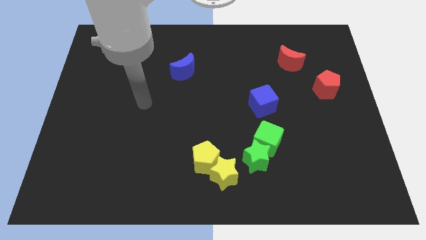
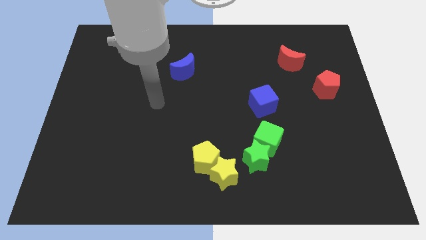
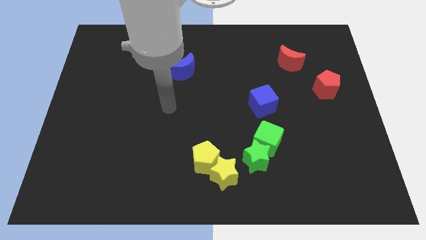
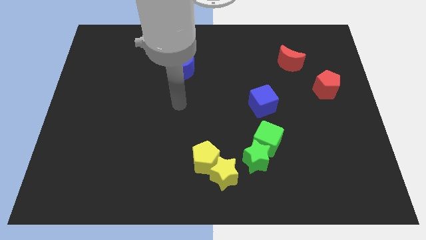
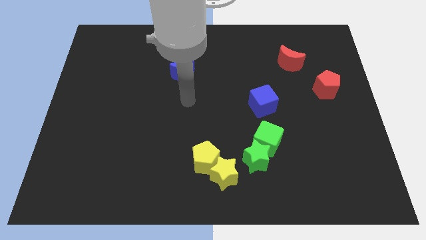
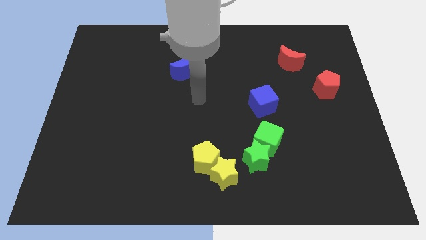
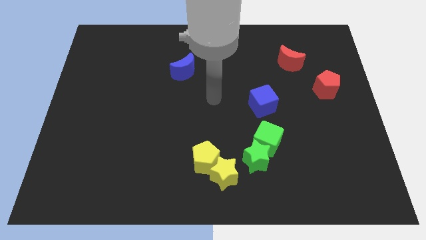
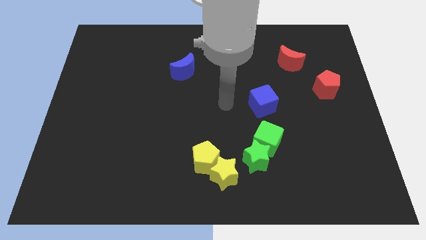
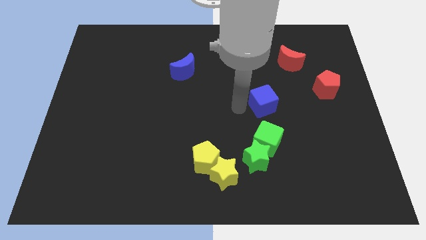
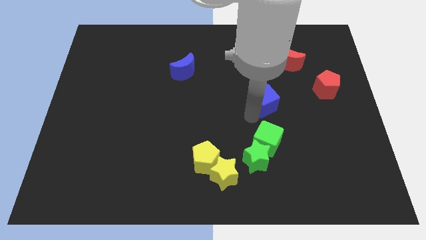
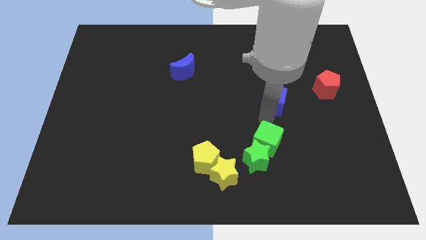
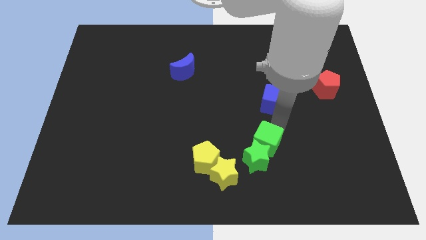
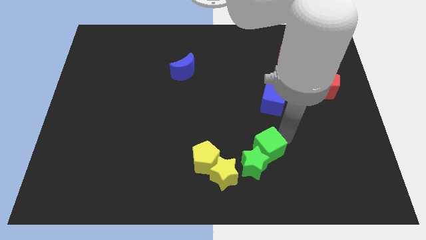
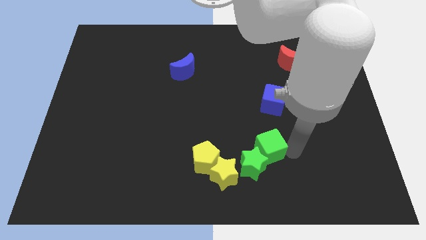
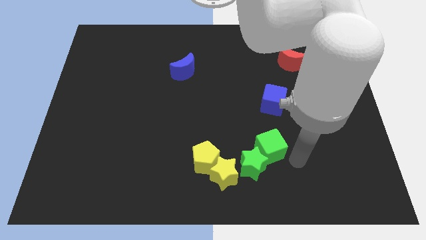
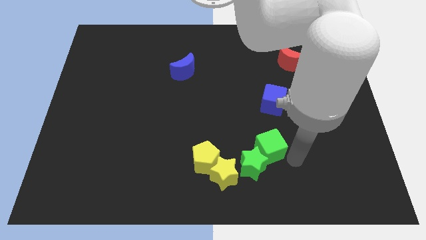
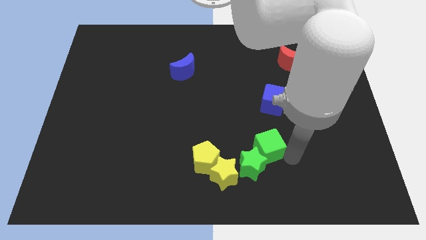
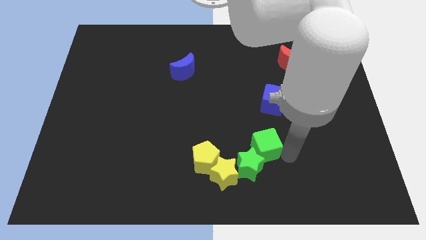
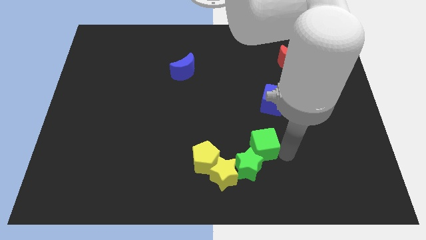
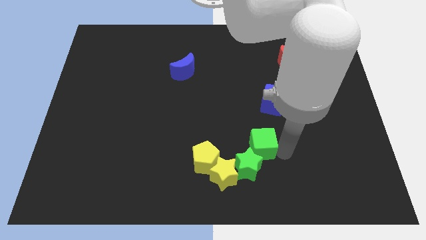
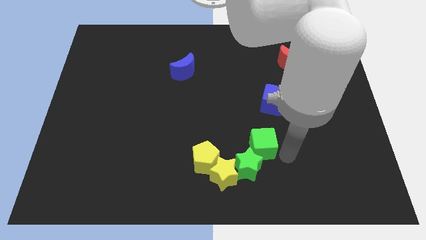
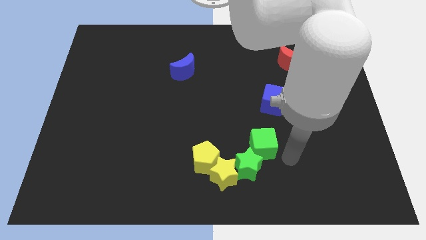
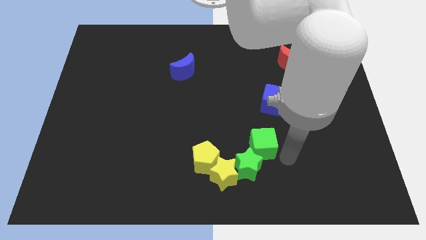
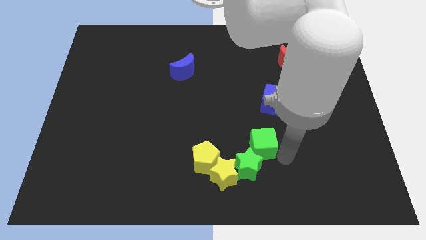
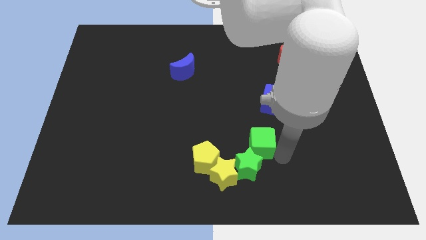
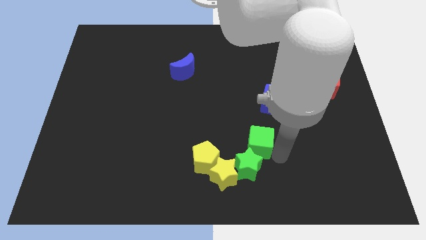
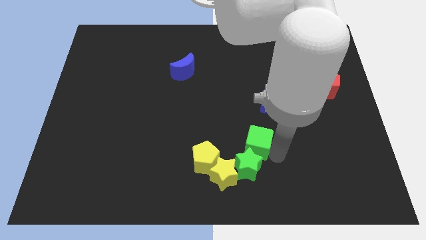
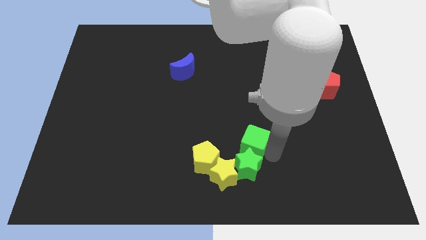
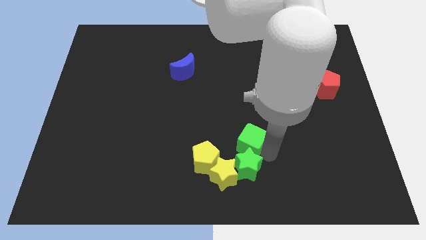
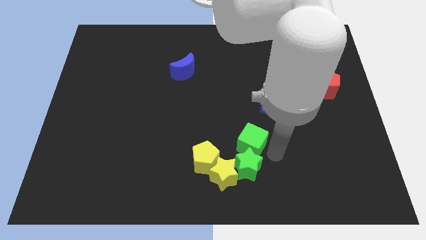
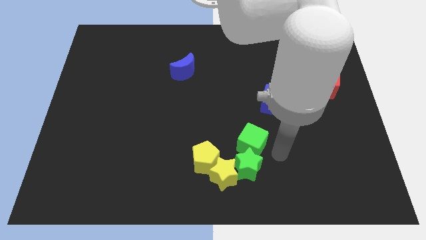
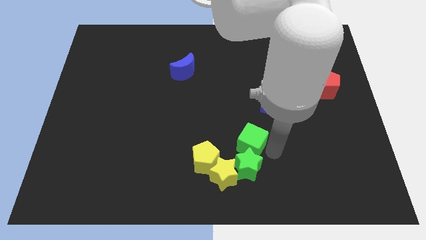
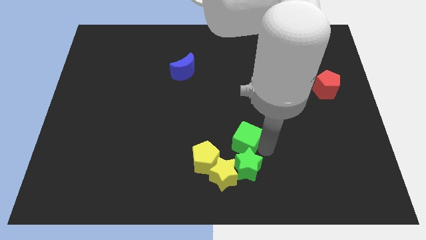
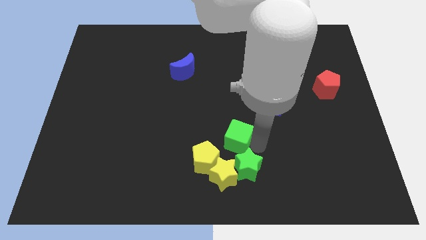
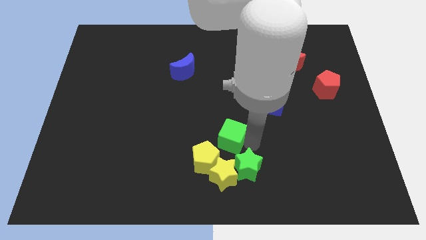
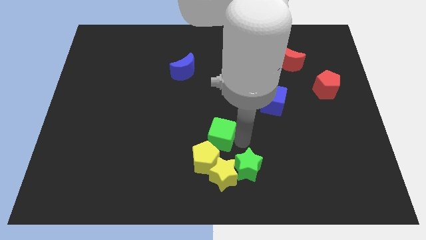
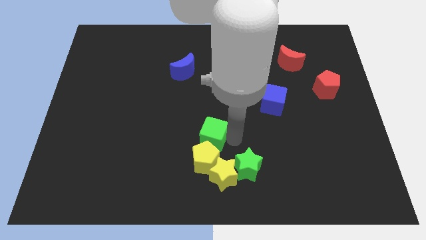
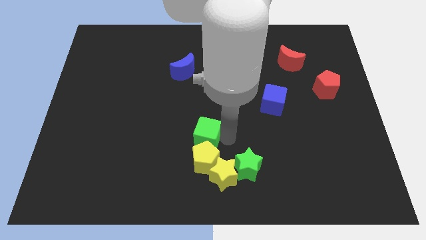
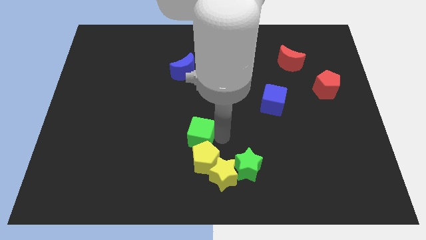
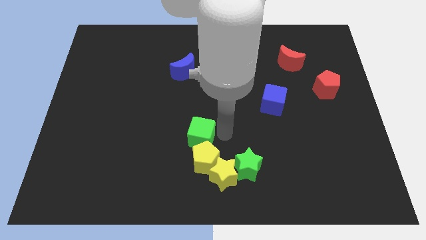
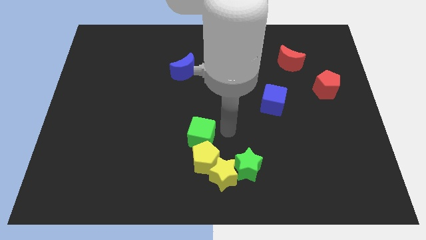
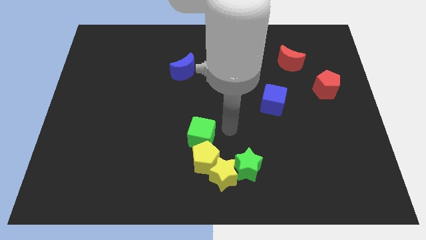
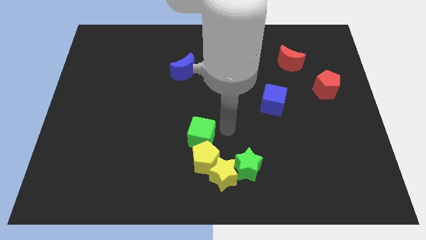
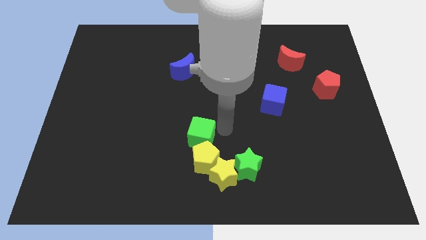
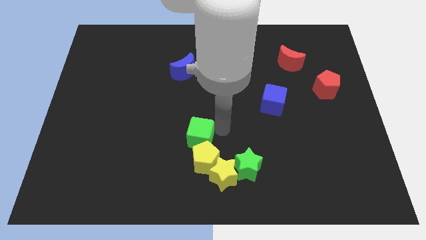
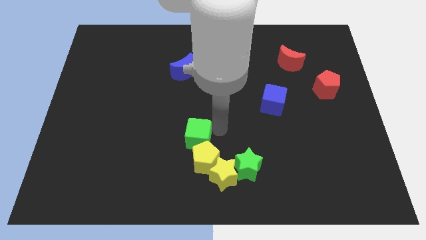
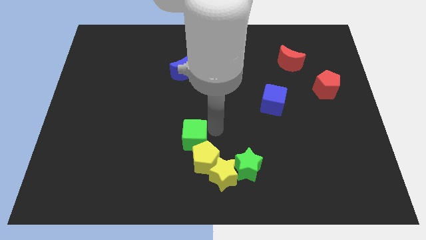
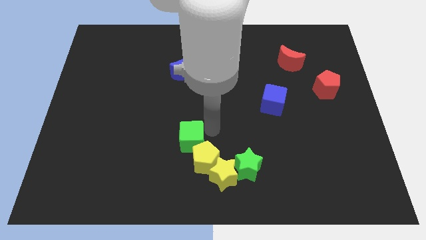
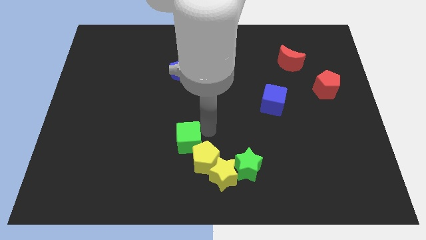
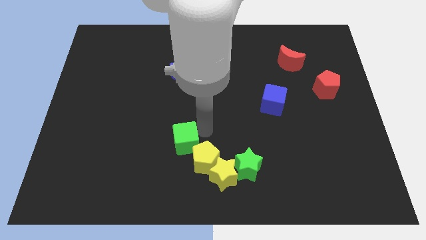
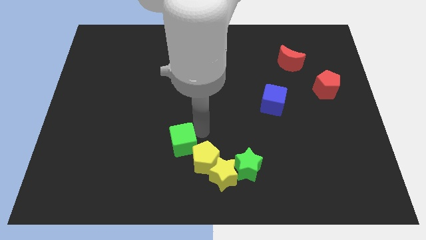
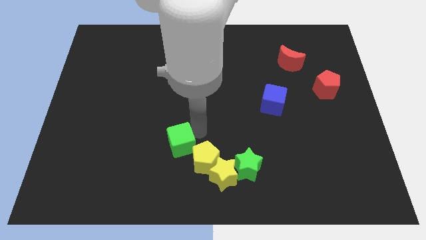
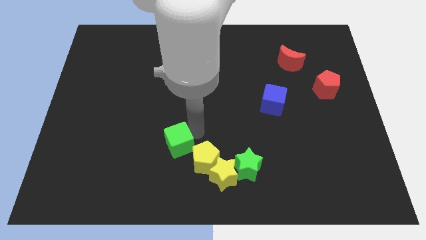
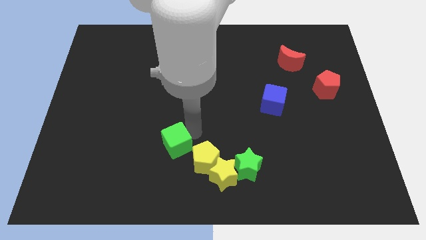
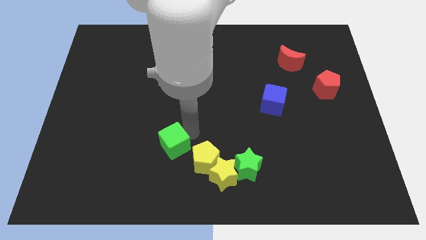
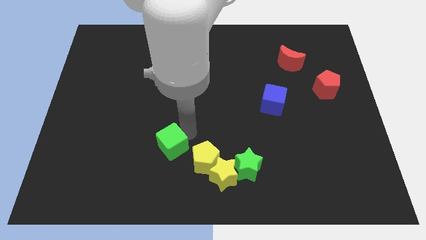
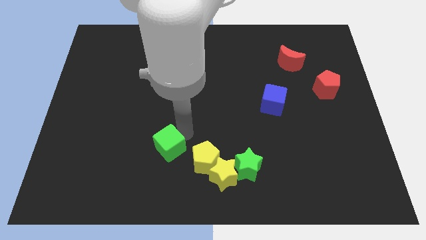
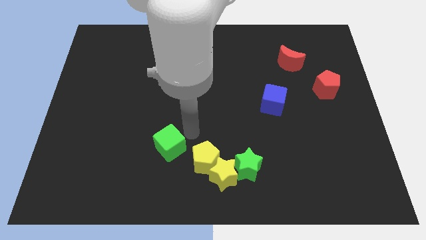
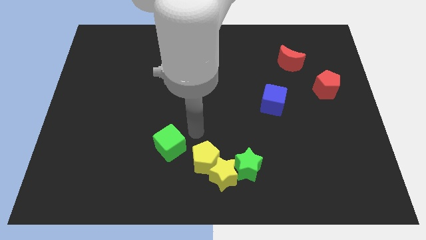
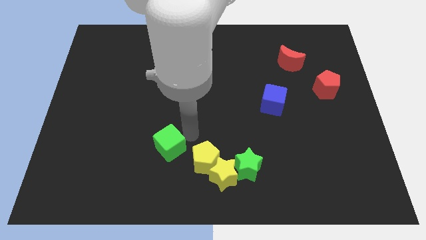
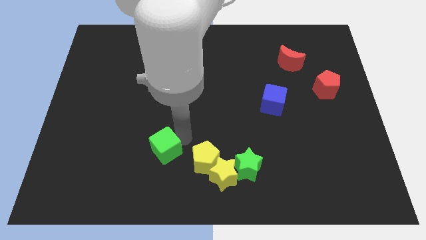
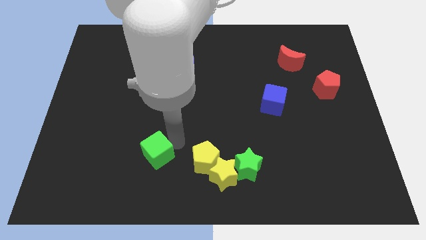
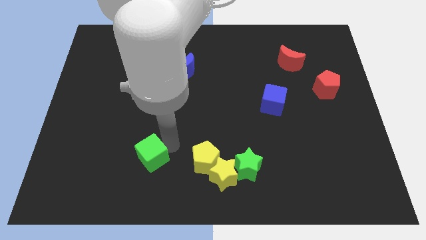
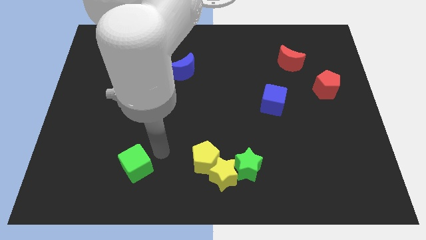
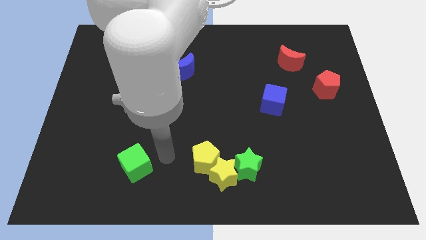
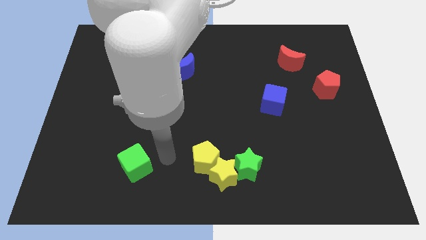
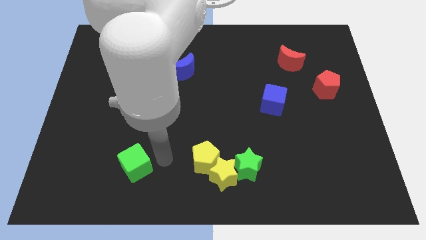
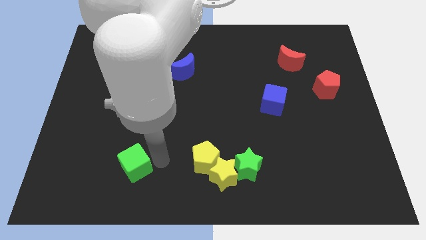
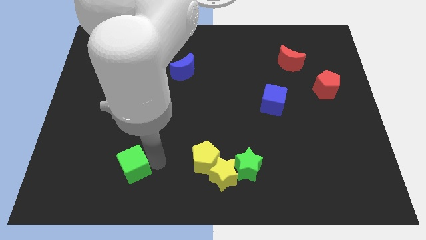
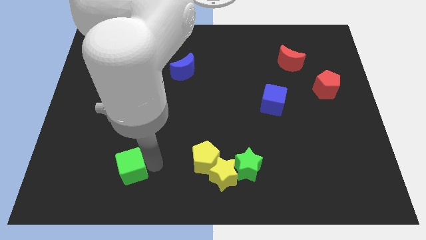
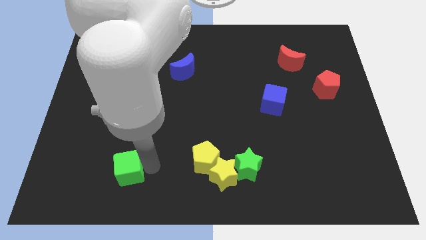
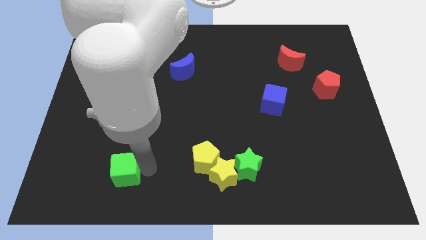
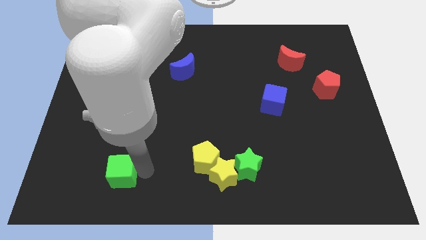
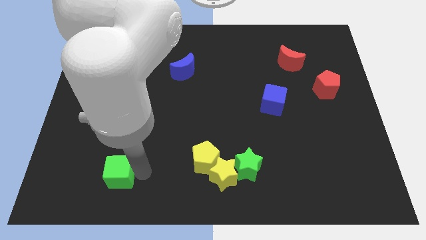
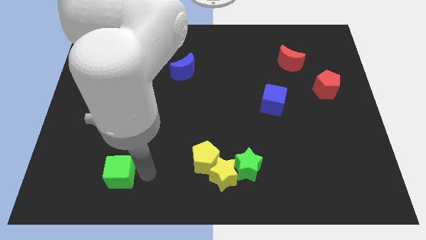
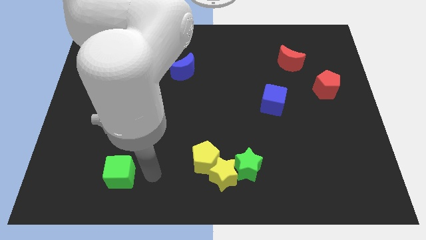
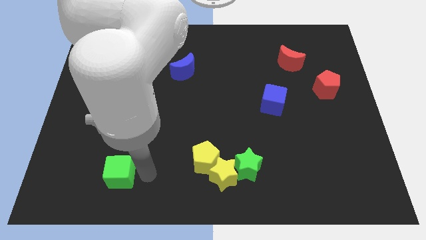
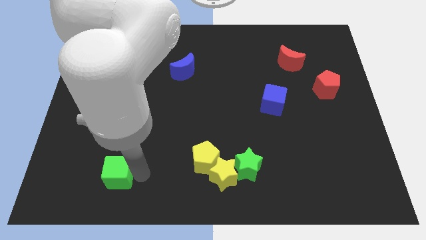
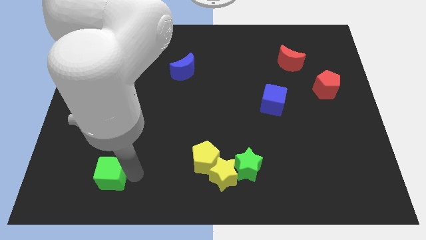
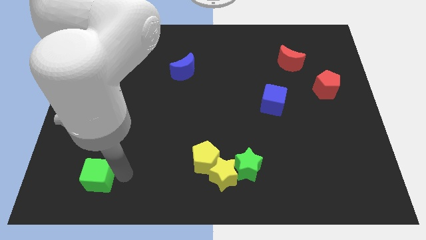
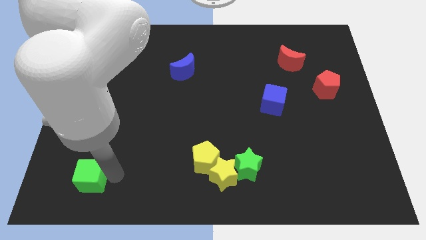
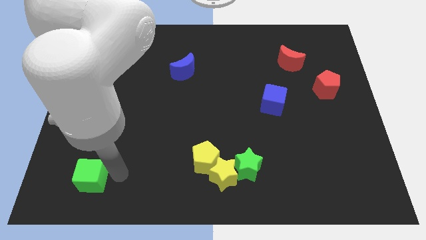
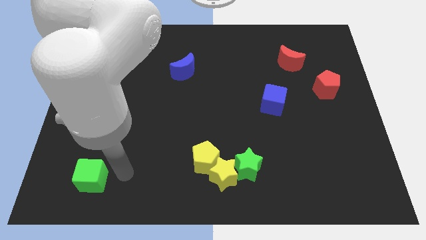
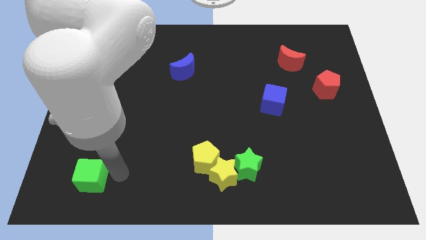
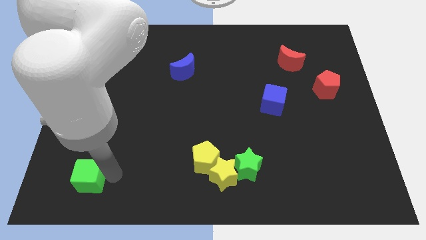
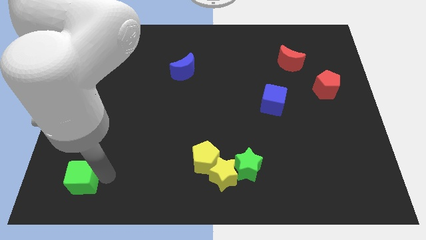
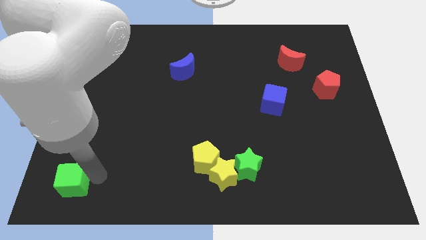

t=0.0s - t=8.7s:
move the green cube to the bottom left of the board
